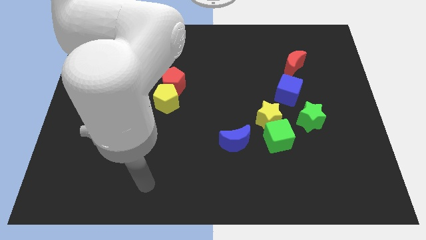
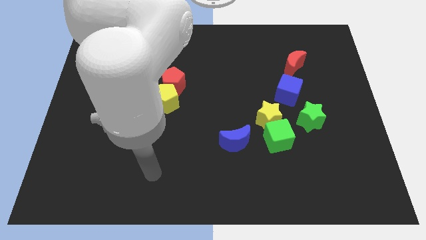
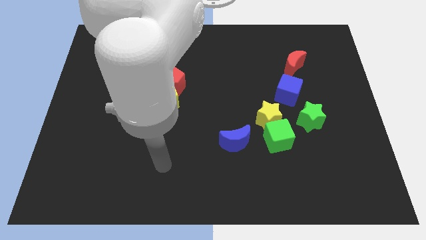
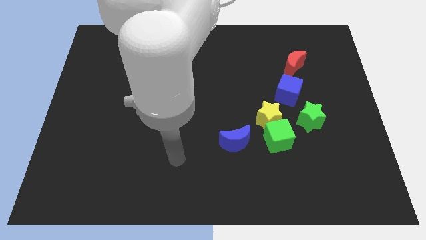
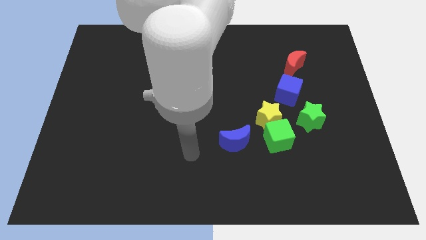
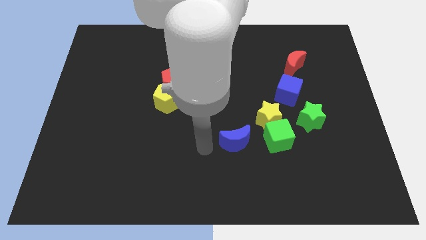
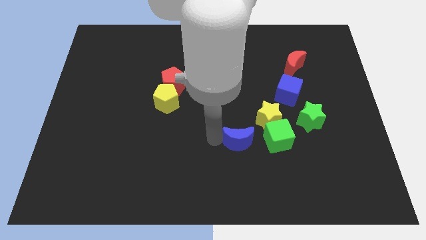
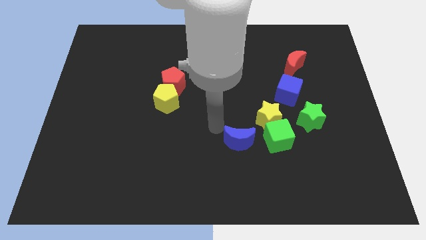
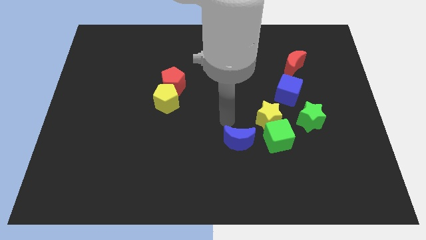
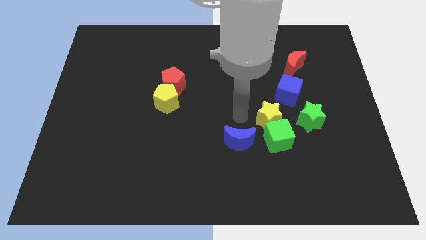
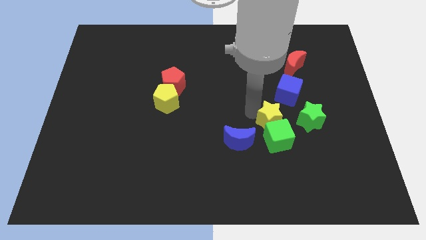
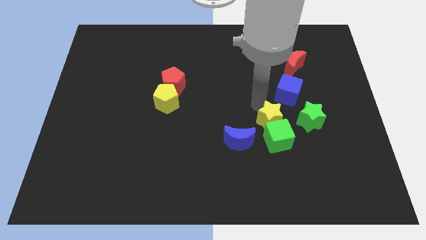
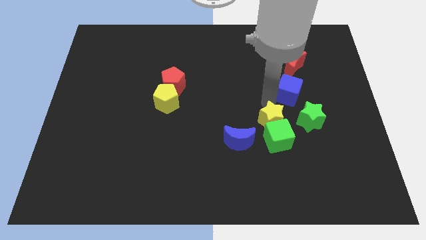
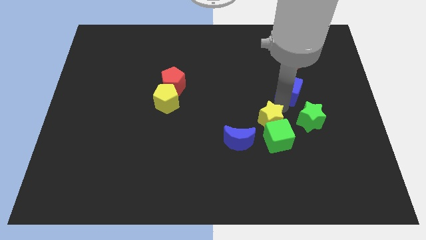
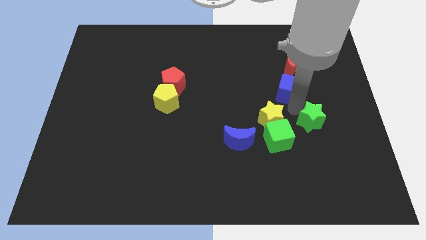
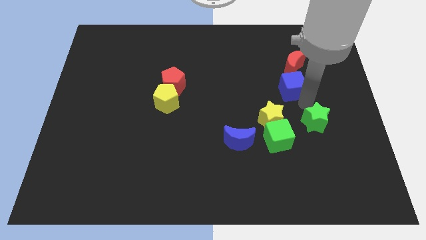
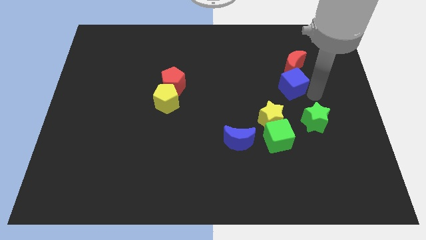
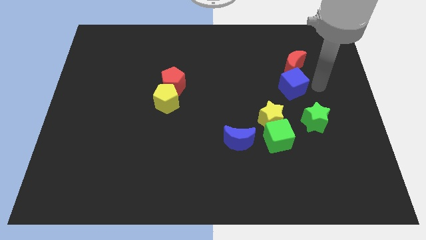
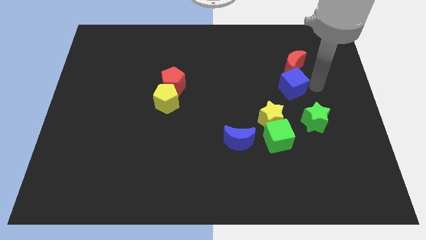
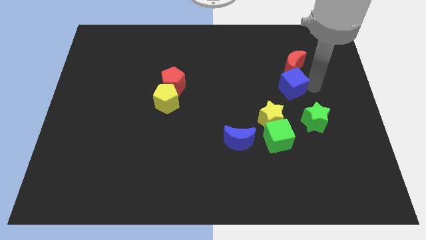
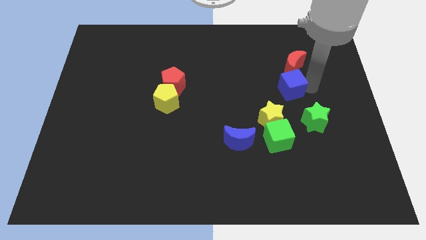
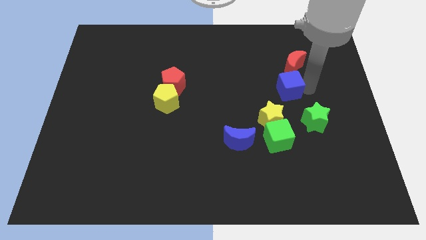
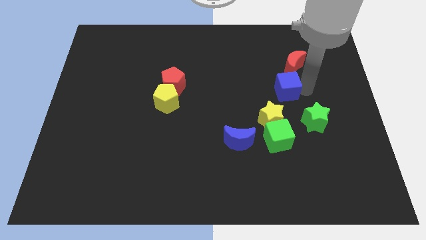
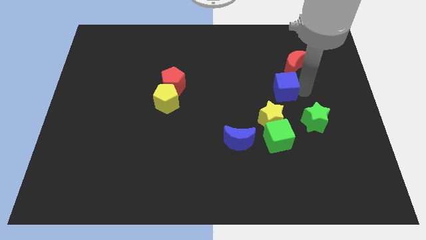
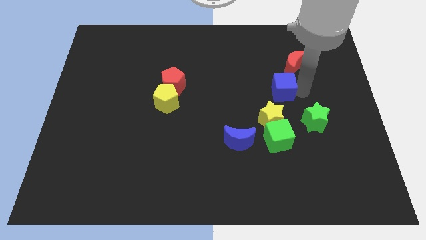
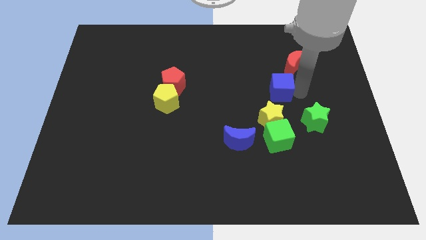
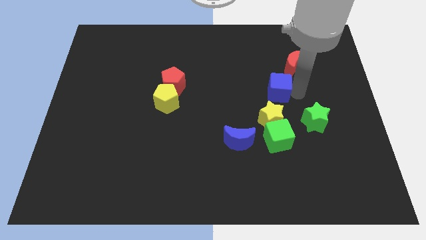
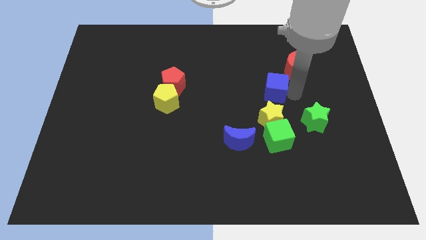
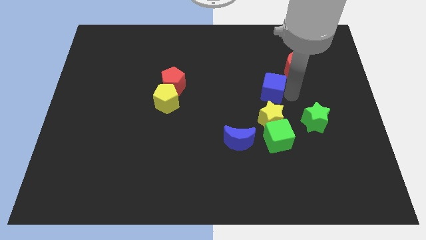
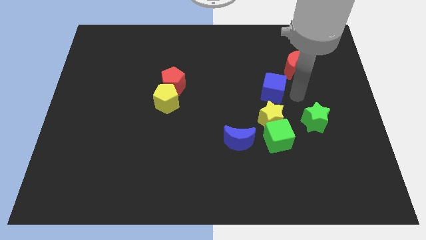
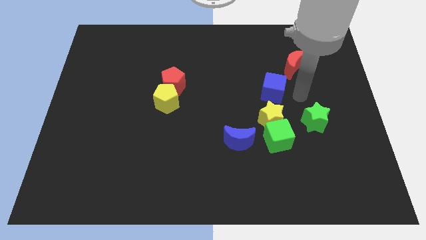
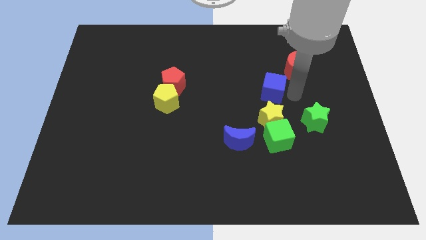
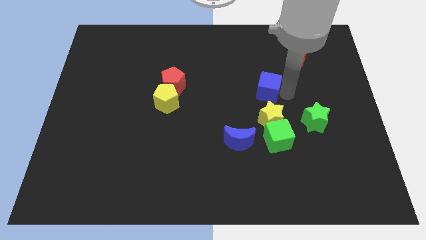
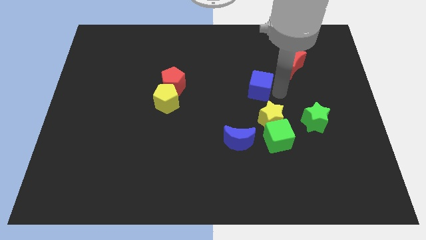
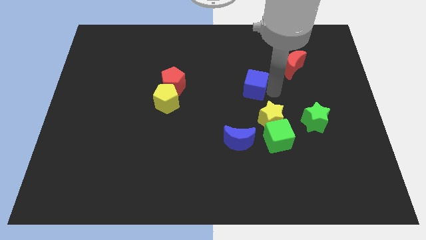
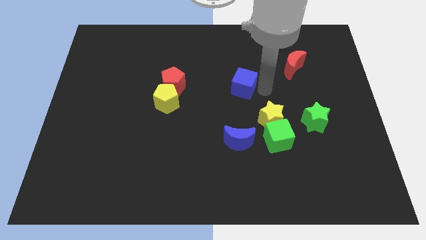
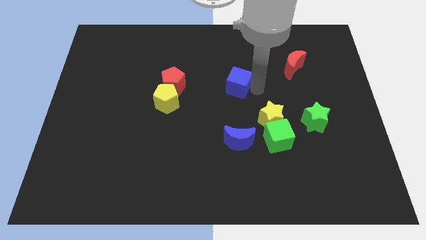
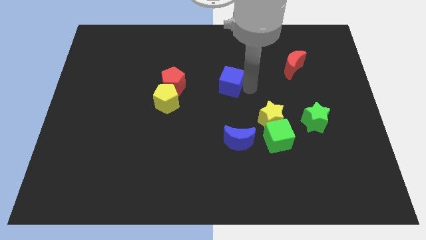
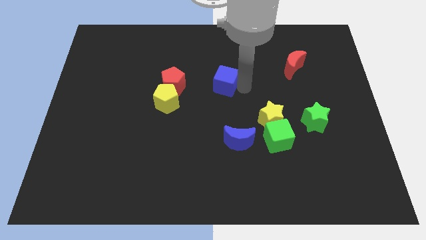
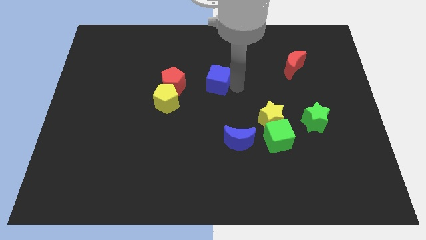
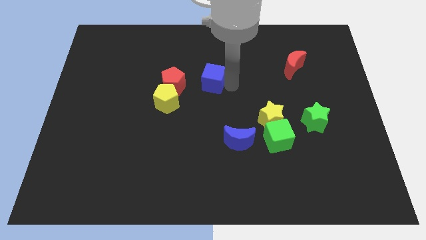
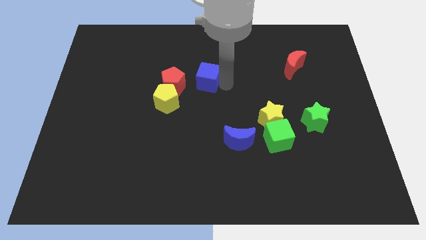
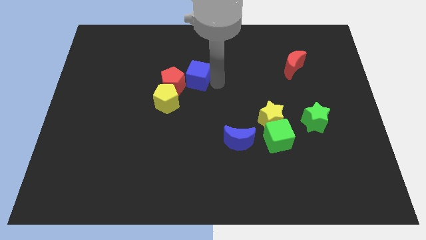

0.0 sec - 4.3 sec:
push the blue cube left

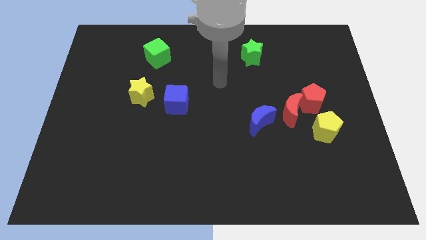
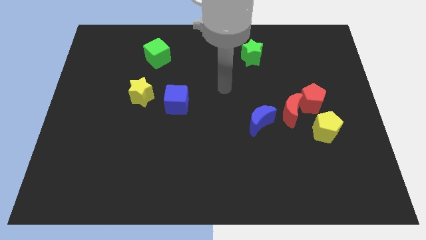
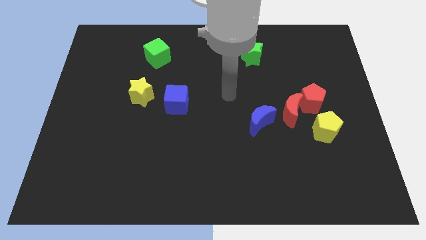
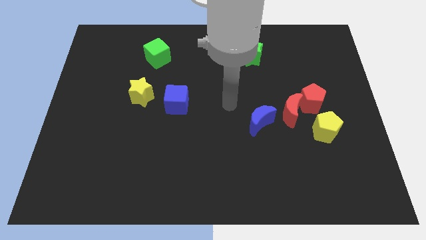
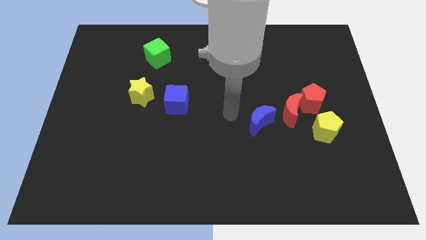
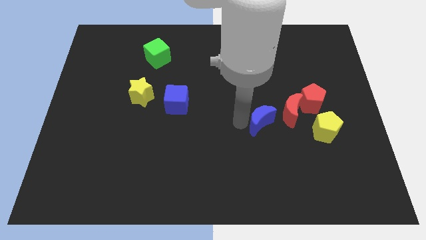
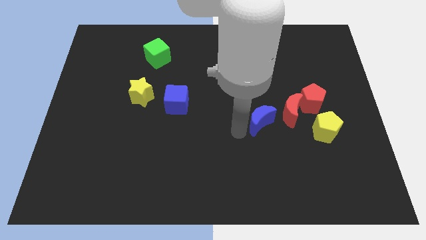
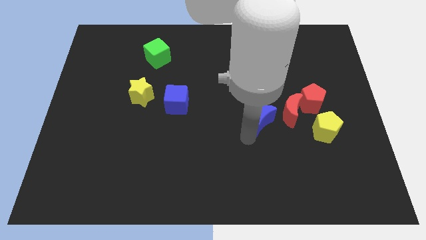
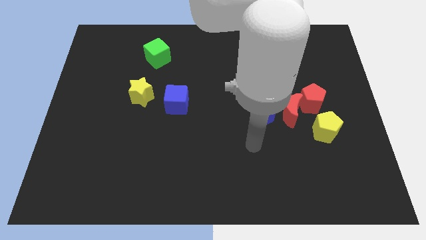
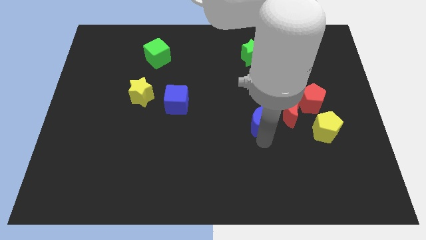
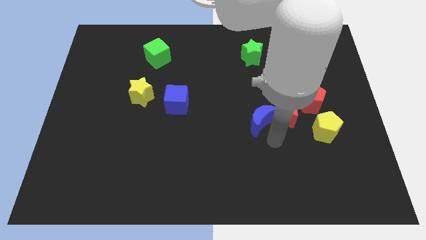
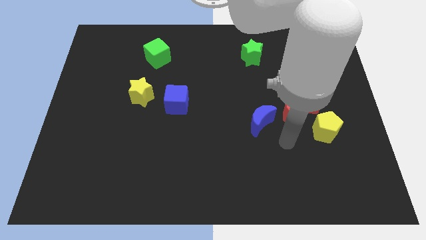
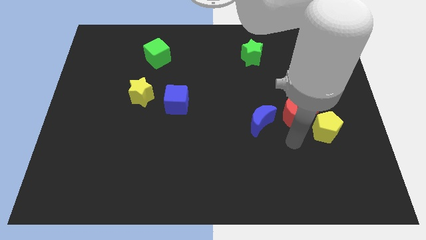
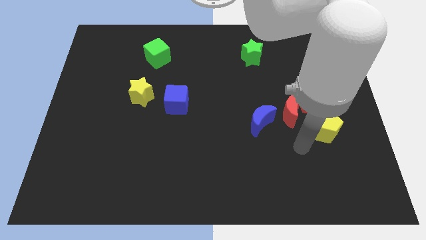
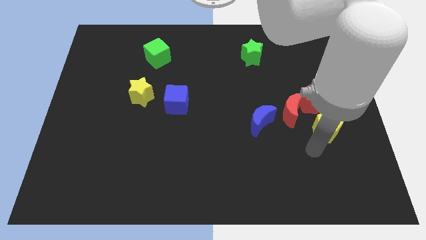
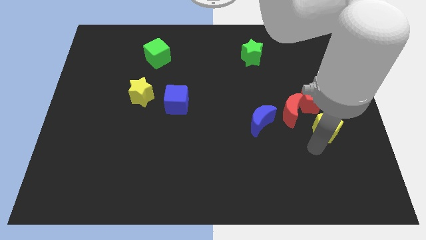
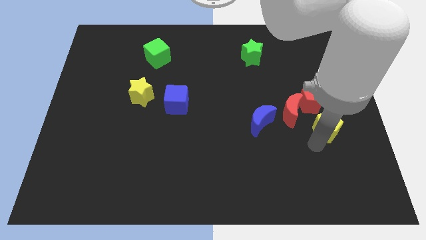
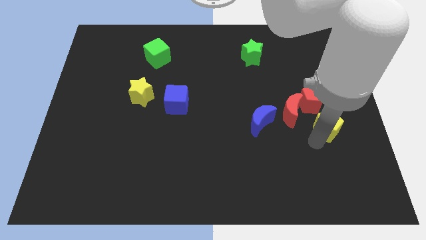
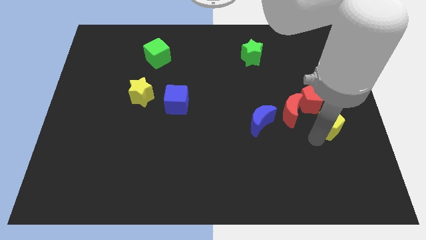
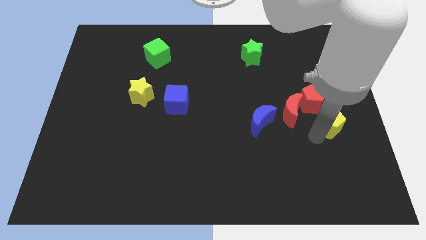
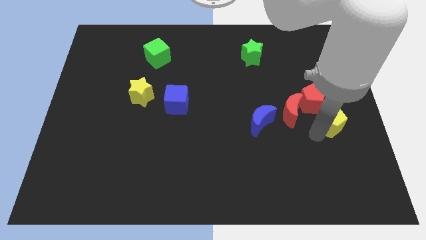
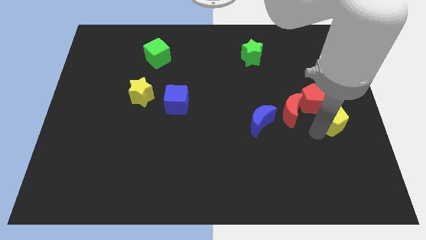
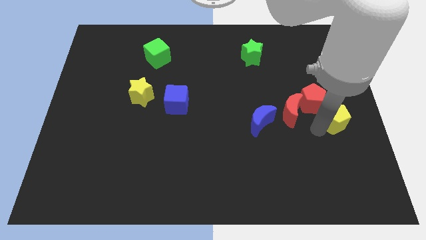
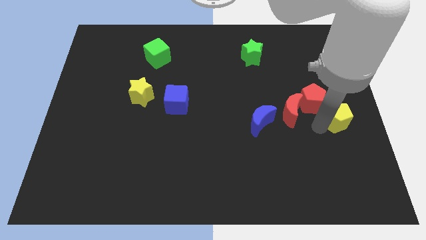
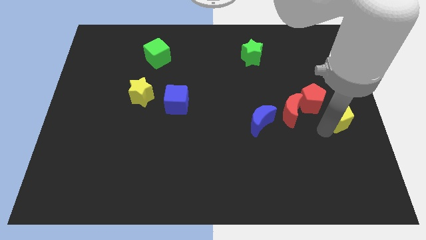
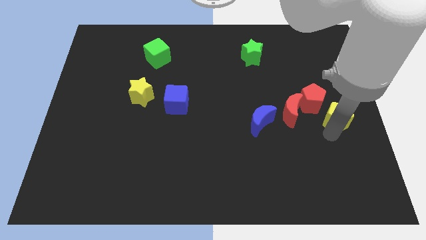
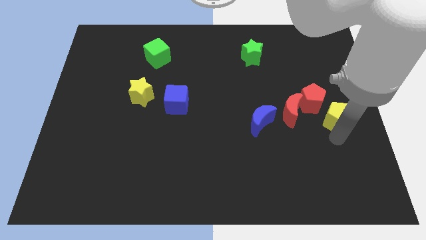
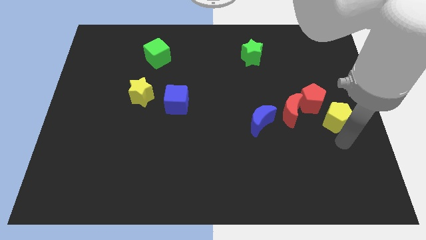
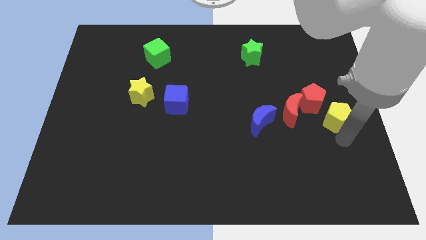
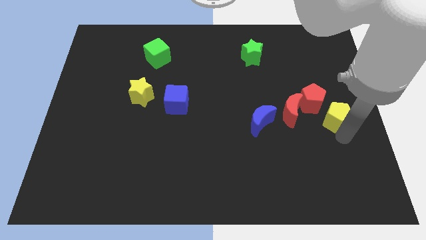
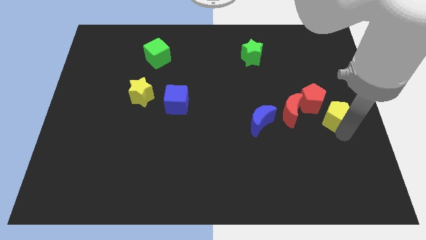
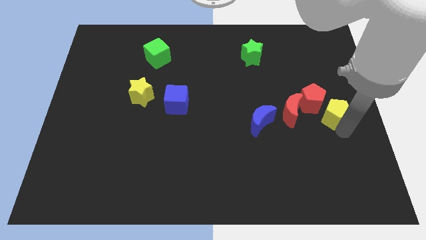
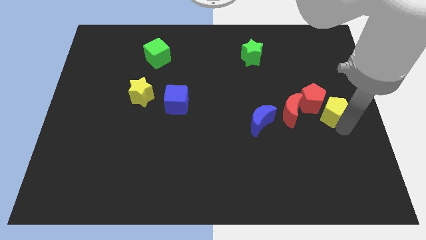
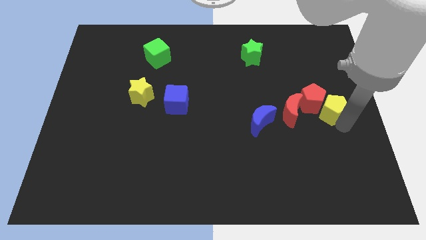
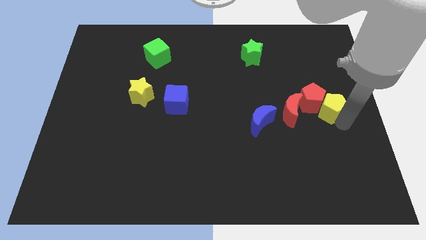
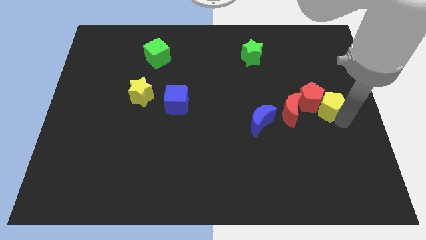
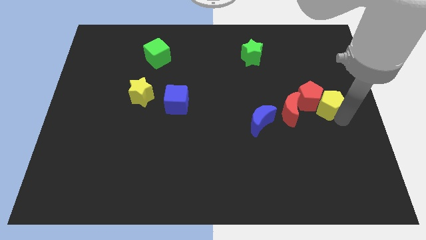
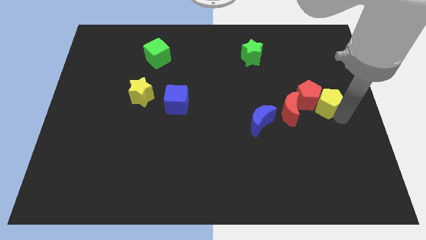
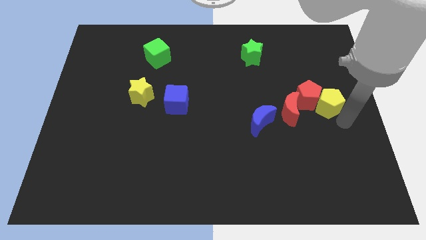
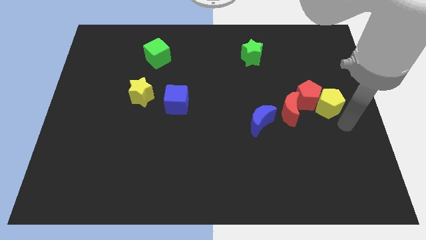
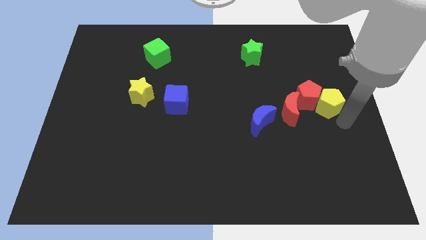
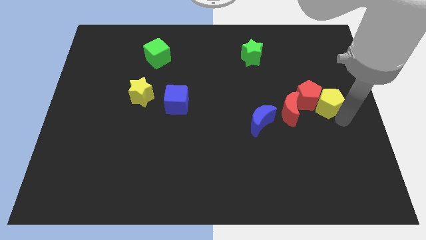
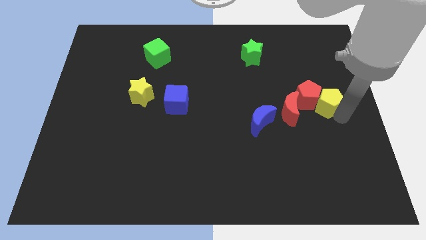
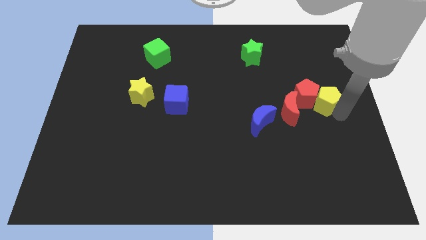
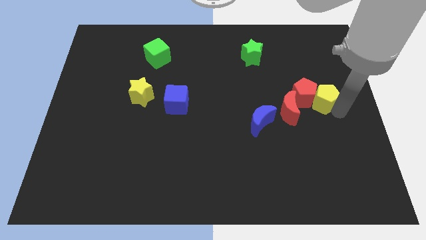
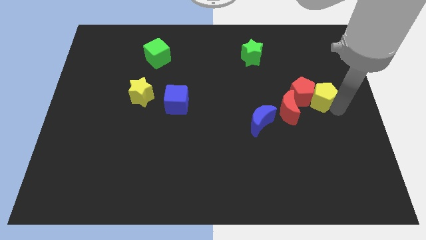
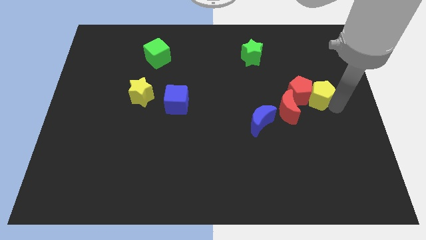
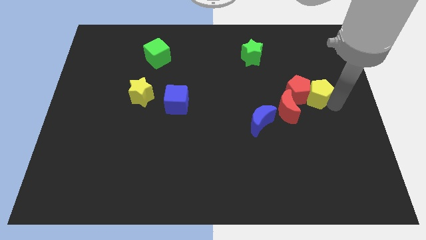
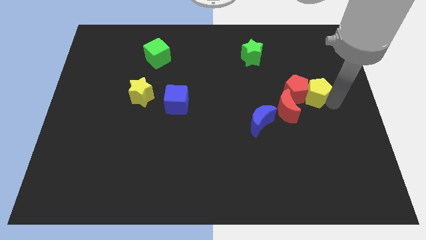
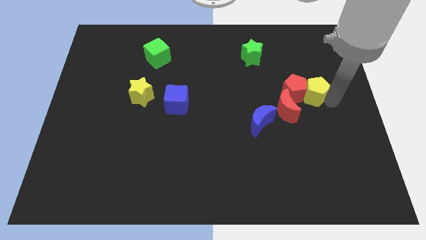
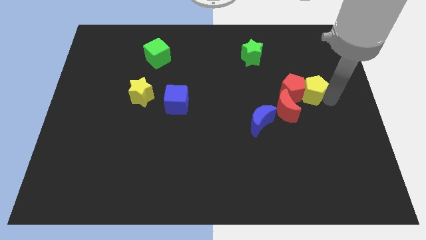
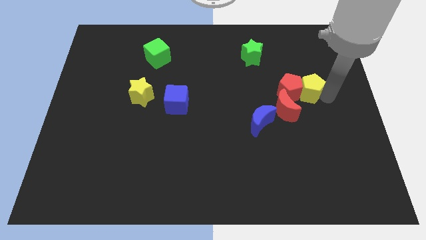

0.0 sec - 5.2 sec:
slightly push the yellow pentagon upwards and then to the left
